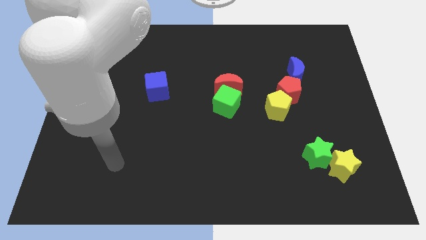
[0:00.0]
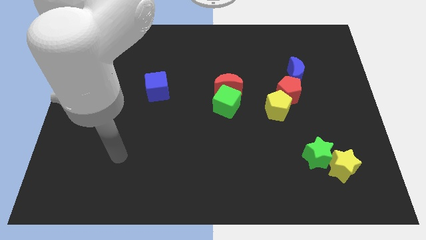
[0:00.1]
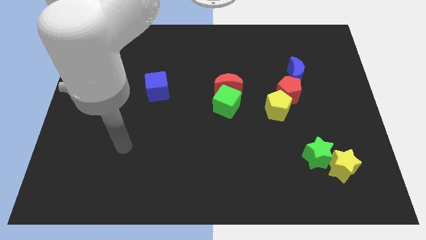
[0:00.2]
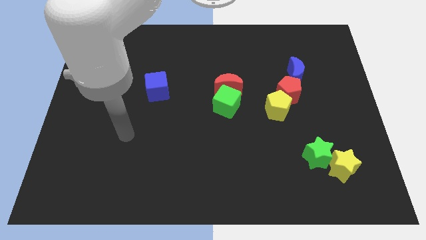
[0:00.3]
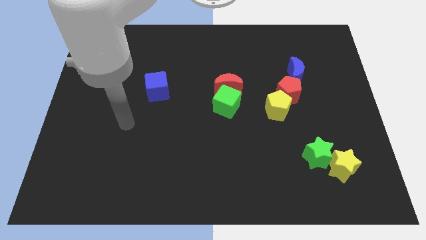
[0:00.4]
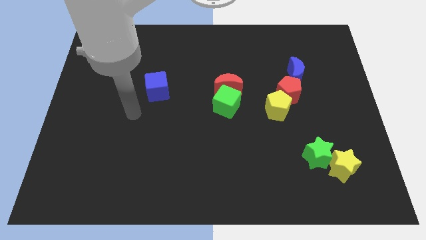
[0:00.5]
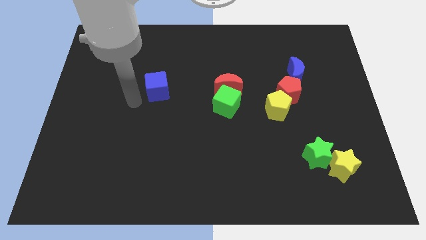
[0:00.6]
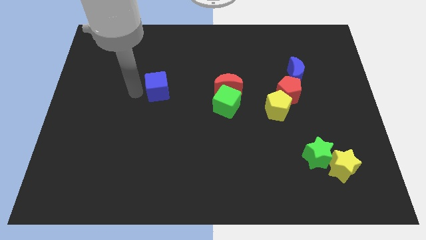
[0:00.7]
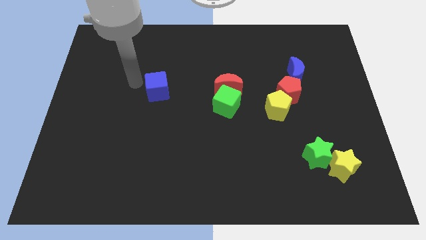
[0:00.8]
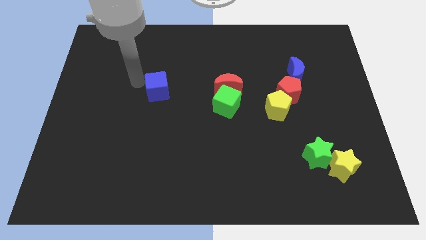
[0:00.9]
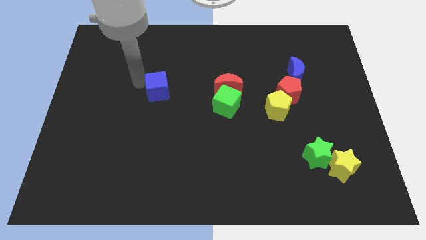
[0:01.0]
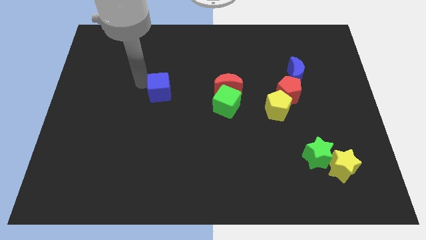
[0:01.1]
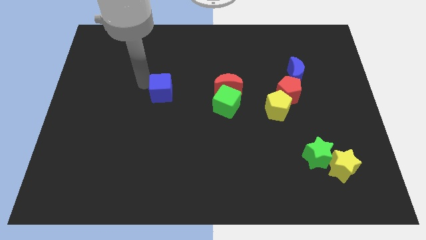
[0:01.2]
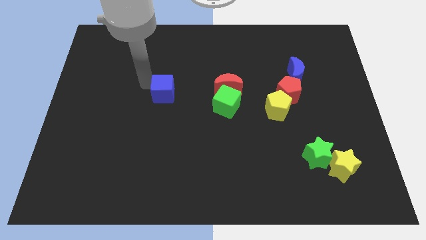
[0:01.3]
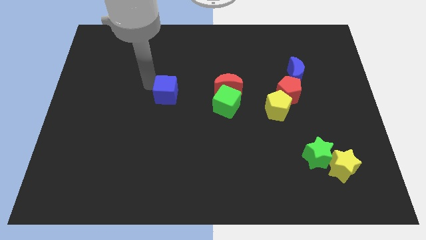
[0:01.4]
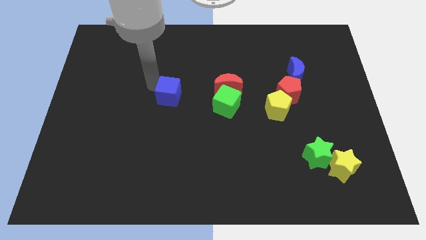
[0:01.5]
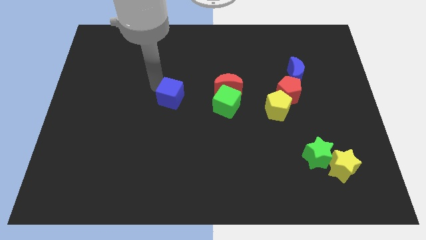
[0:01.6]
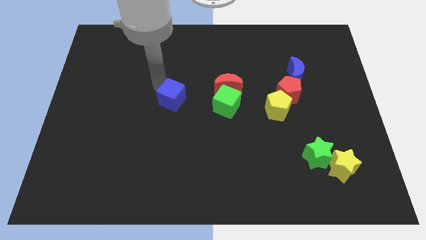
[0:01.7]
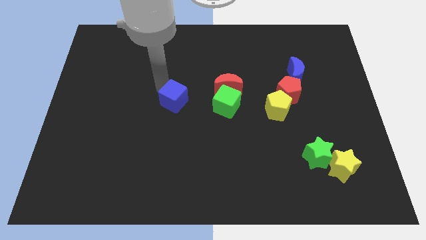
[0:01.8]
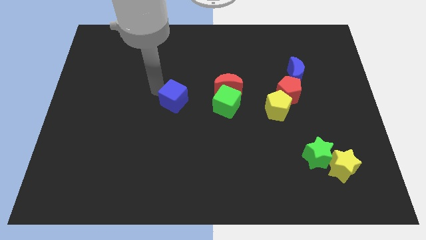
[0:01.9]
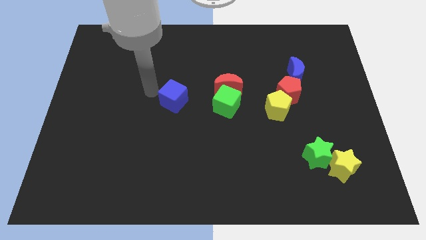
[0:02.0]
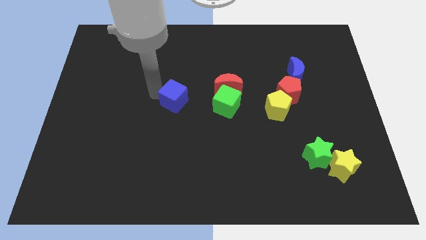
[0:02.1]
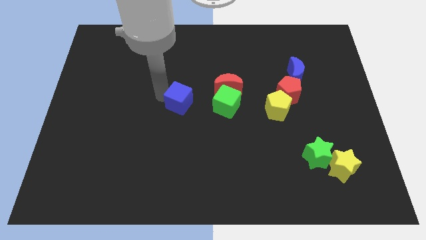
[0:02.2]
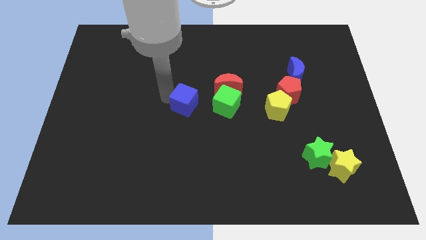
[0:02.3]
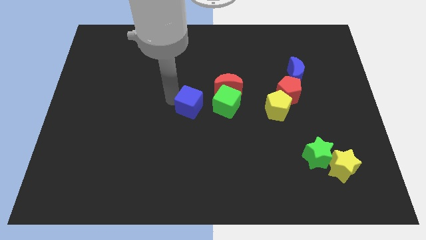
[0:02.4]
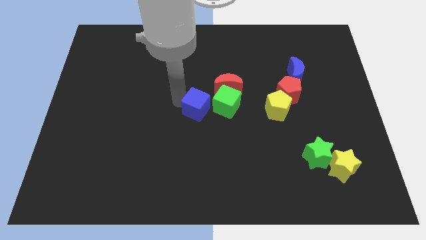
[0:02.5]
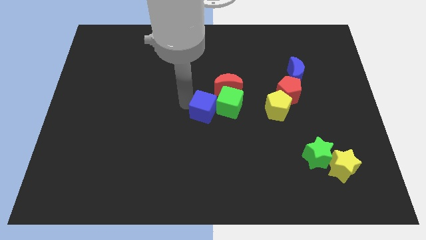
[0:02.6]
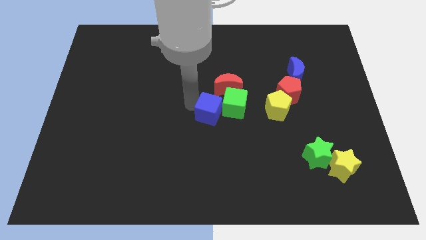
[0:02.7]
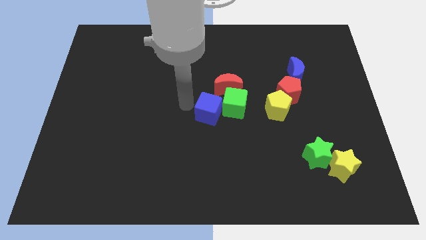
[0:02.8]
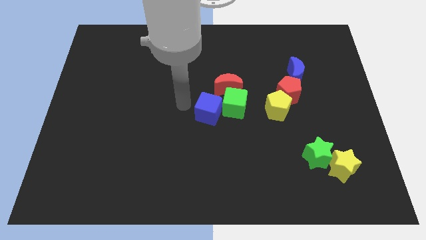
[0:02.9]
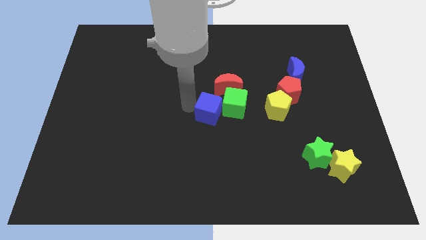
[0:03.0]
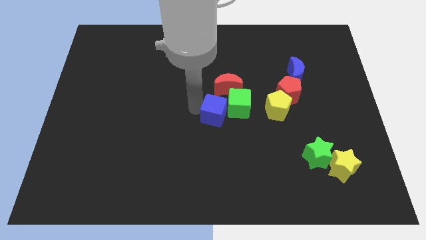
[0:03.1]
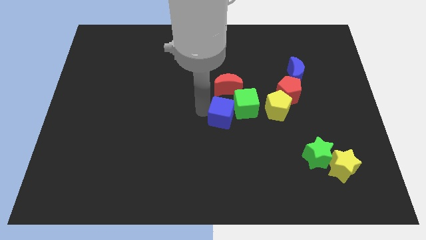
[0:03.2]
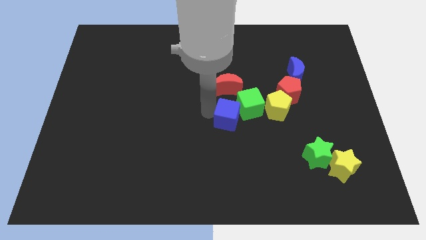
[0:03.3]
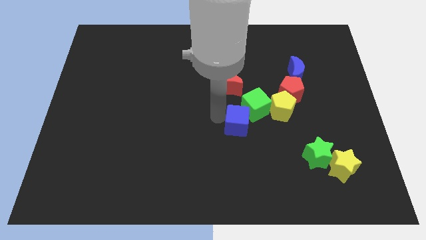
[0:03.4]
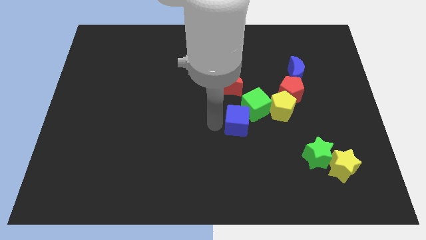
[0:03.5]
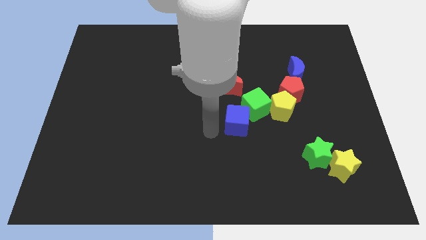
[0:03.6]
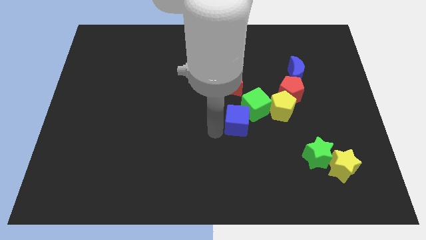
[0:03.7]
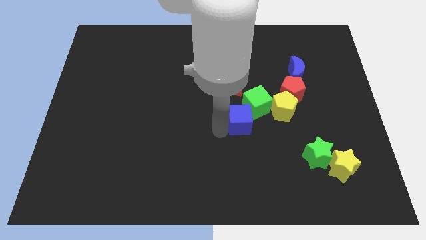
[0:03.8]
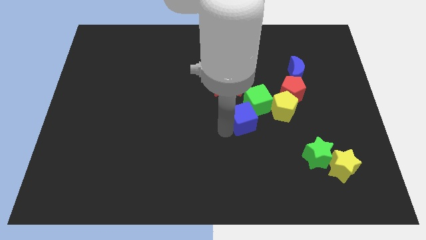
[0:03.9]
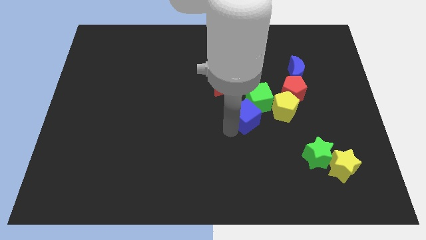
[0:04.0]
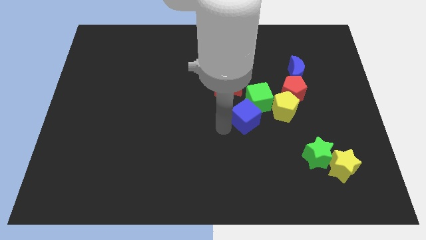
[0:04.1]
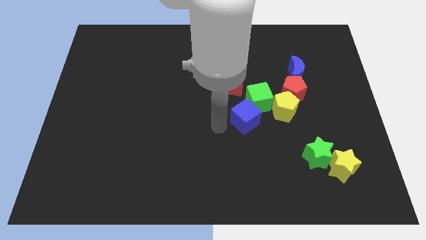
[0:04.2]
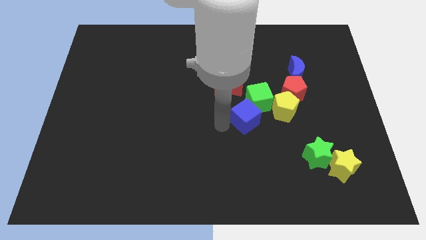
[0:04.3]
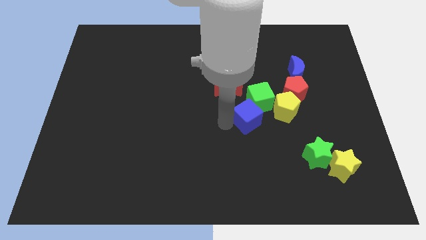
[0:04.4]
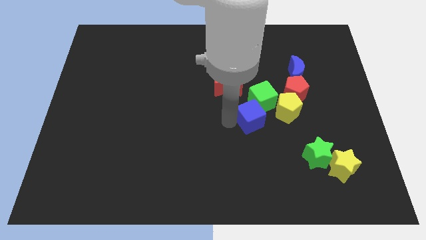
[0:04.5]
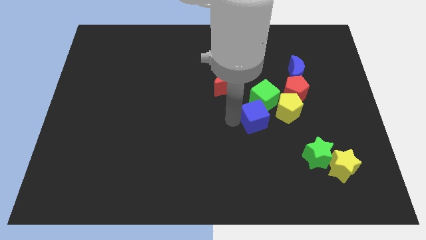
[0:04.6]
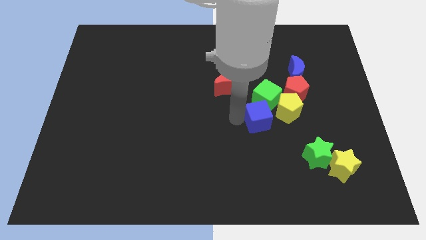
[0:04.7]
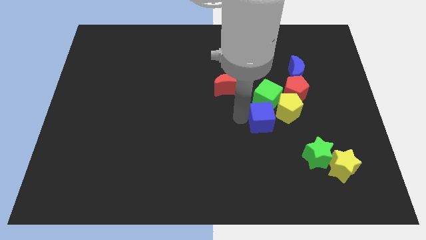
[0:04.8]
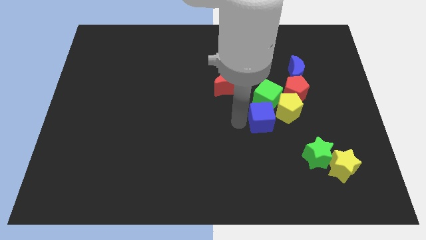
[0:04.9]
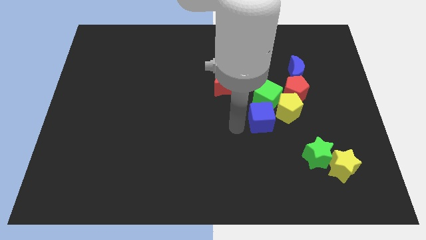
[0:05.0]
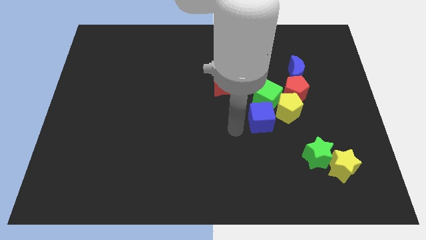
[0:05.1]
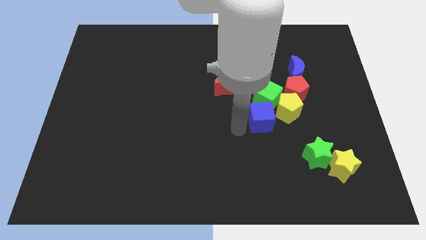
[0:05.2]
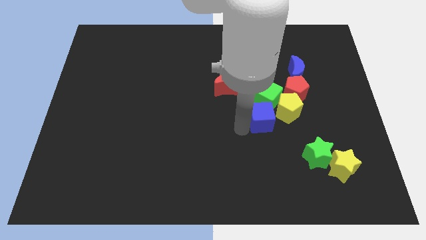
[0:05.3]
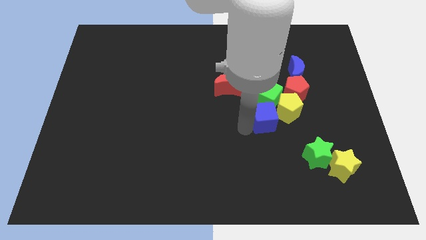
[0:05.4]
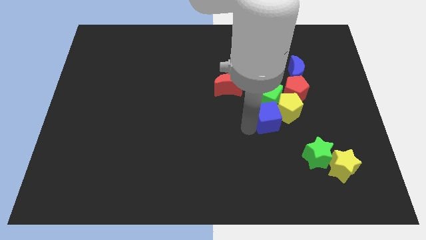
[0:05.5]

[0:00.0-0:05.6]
slide the blue cube close to the yellow pentagon

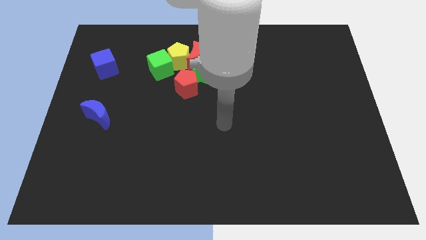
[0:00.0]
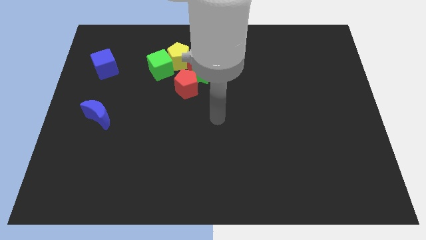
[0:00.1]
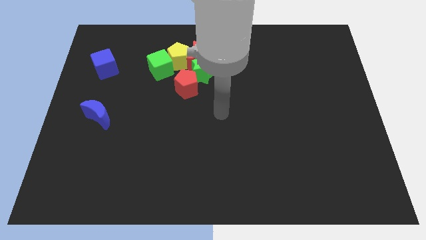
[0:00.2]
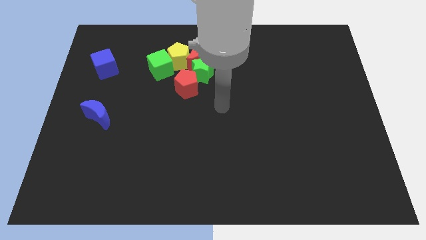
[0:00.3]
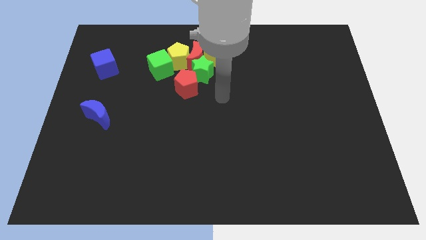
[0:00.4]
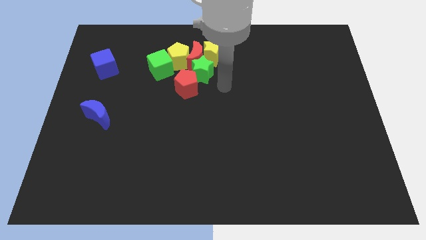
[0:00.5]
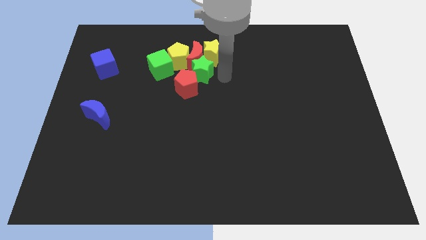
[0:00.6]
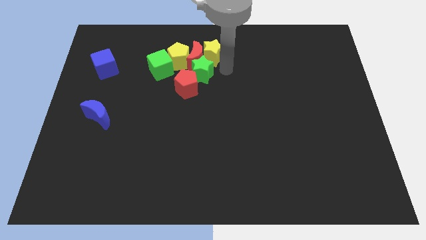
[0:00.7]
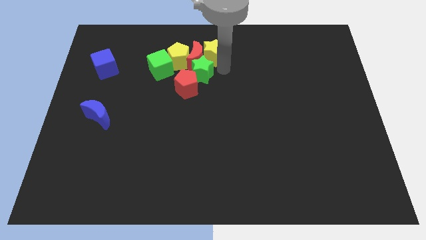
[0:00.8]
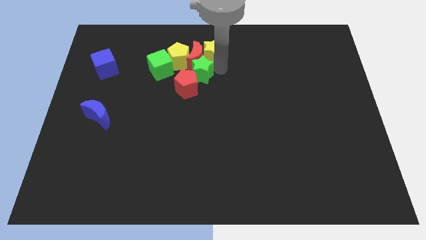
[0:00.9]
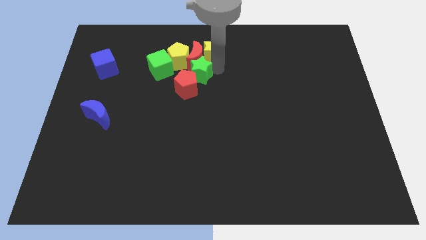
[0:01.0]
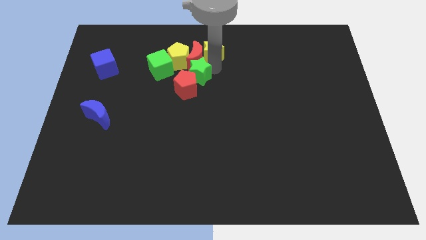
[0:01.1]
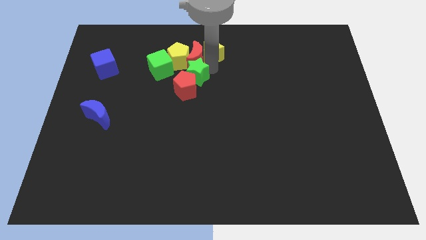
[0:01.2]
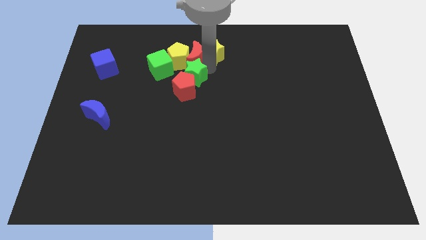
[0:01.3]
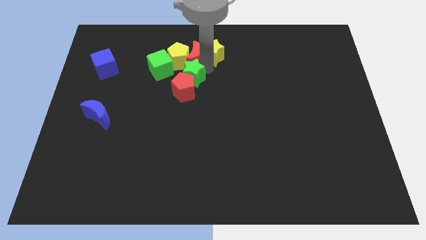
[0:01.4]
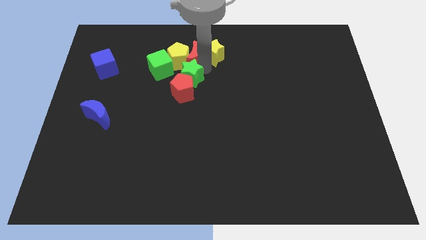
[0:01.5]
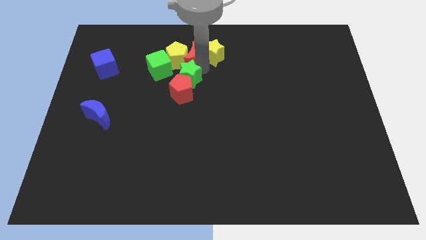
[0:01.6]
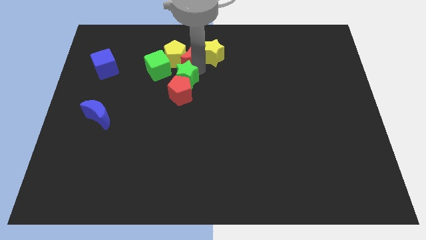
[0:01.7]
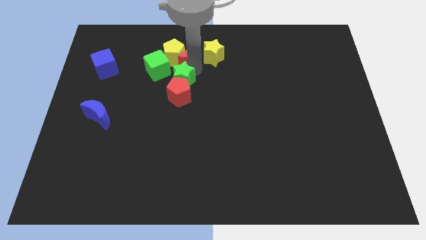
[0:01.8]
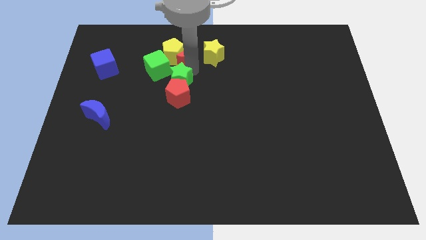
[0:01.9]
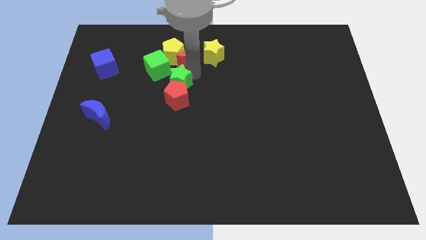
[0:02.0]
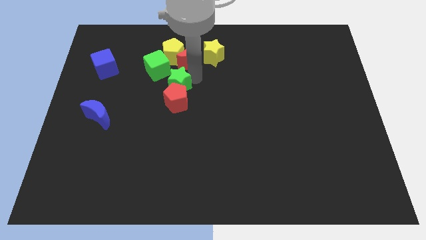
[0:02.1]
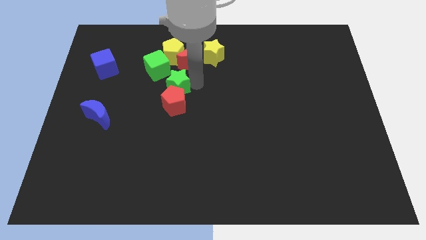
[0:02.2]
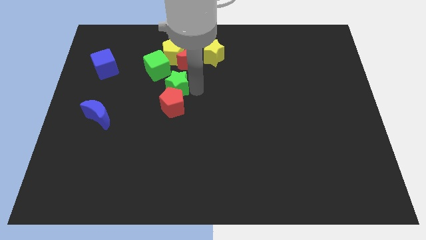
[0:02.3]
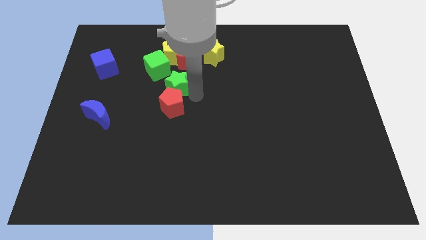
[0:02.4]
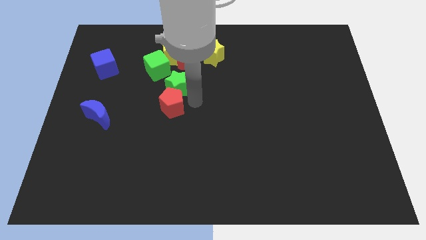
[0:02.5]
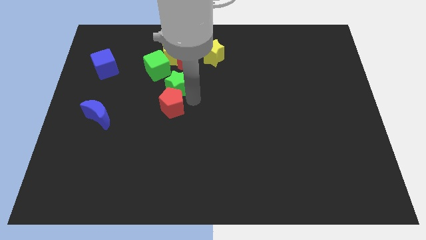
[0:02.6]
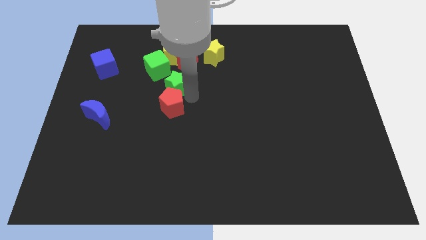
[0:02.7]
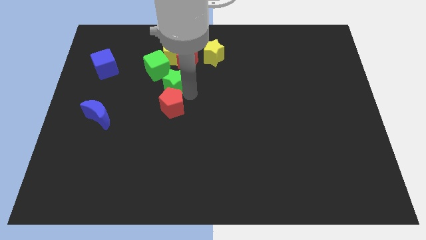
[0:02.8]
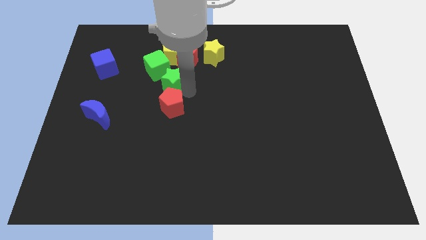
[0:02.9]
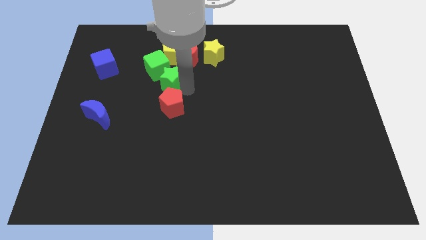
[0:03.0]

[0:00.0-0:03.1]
push the green star to the green cube
